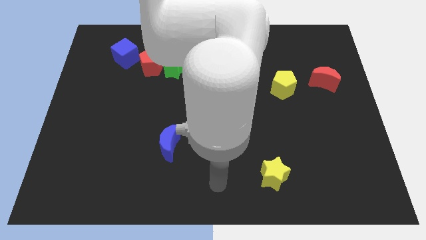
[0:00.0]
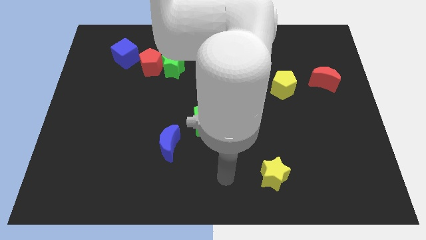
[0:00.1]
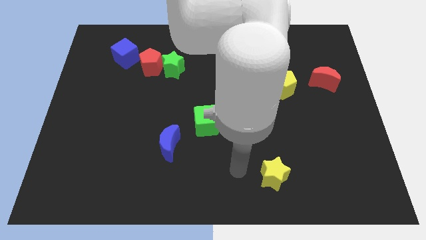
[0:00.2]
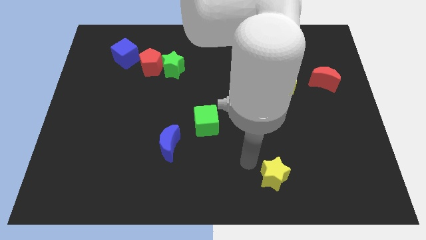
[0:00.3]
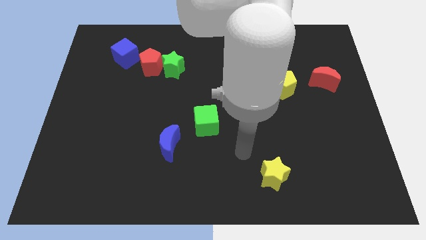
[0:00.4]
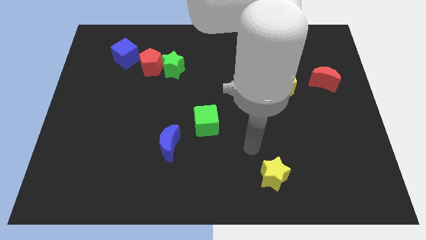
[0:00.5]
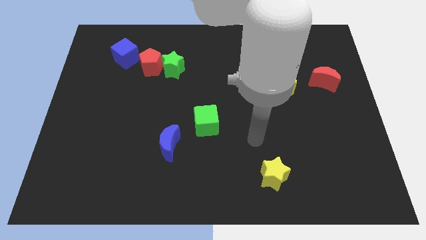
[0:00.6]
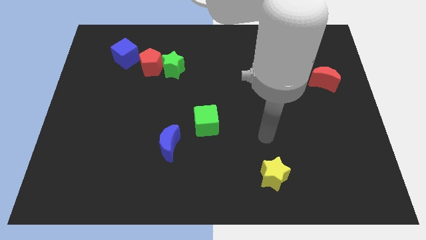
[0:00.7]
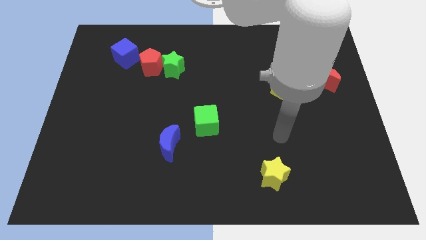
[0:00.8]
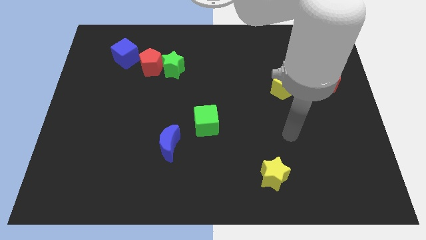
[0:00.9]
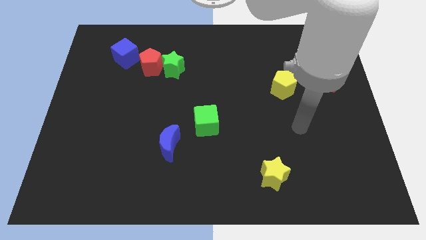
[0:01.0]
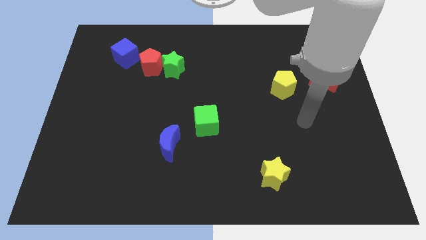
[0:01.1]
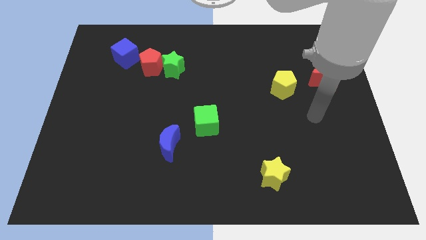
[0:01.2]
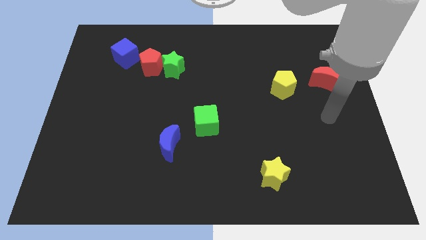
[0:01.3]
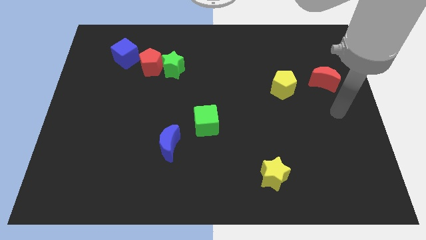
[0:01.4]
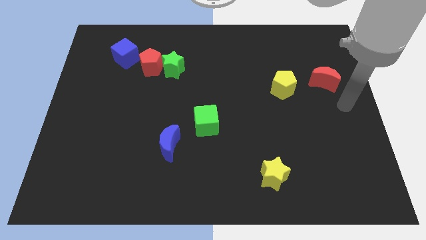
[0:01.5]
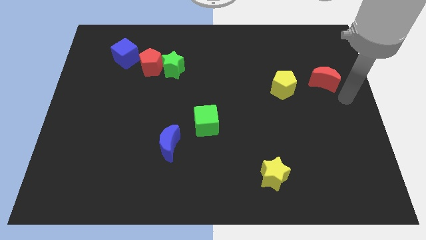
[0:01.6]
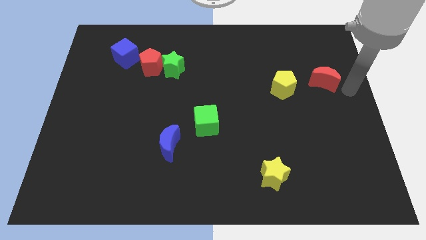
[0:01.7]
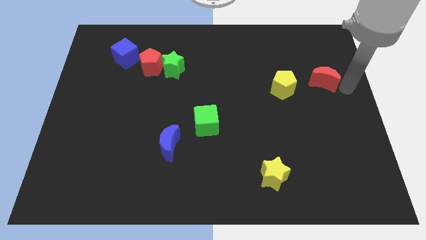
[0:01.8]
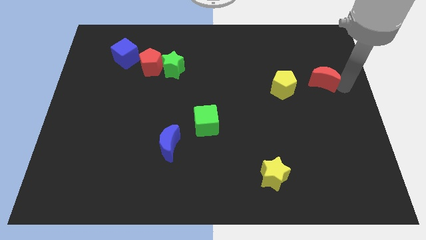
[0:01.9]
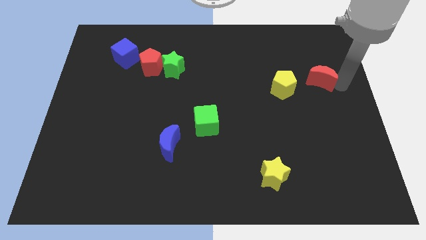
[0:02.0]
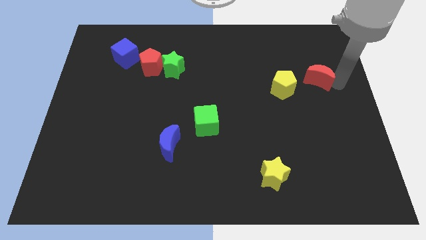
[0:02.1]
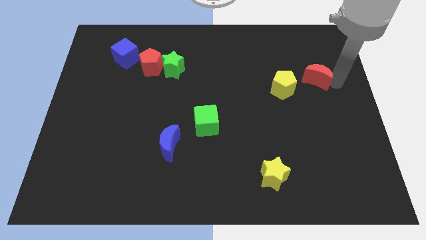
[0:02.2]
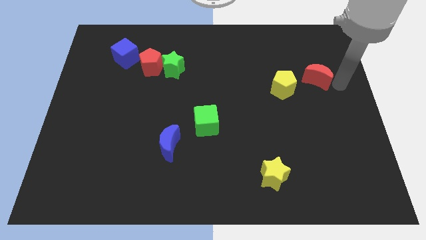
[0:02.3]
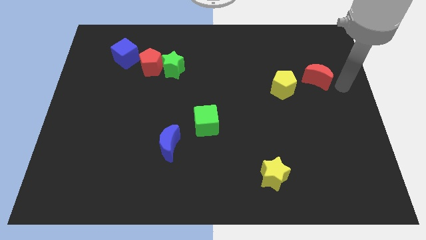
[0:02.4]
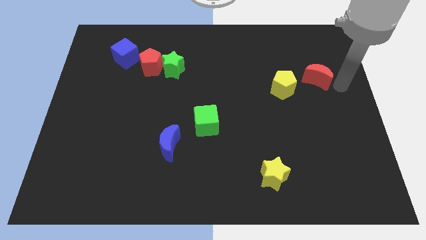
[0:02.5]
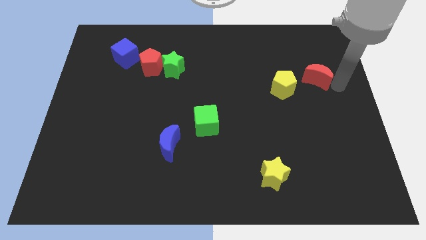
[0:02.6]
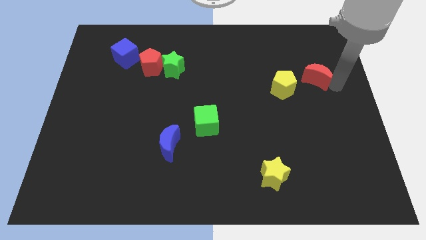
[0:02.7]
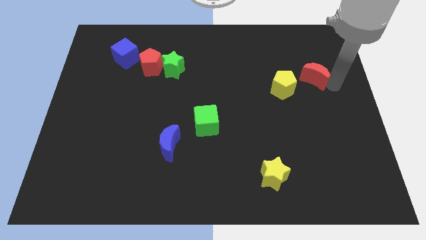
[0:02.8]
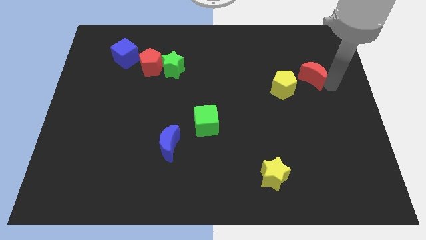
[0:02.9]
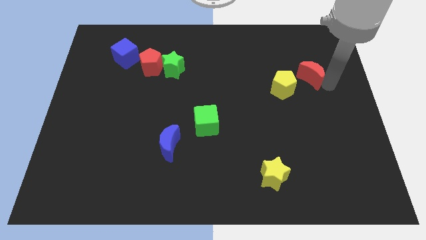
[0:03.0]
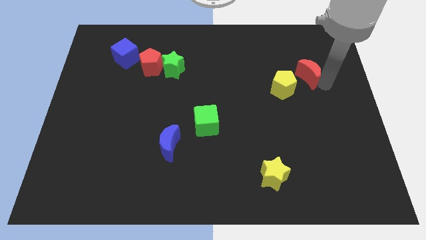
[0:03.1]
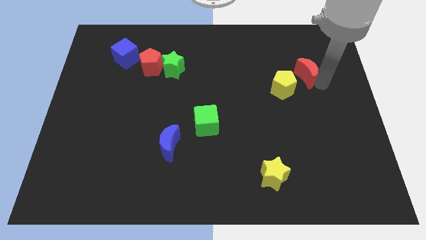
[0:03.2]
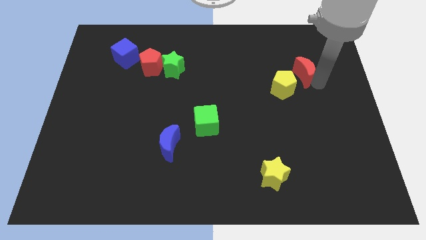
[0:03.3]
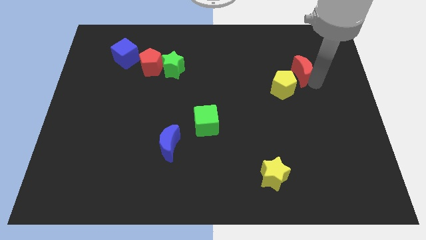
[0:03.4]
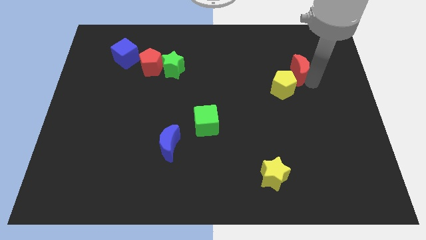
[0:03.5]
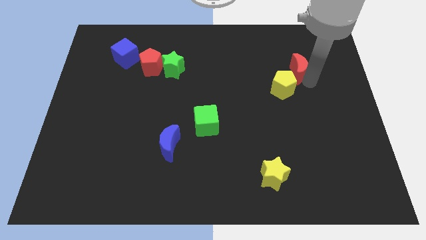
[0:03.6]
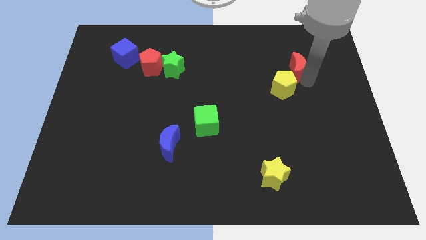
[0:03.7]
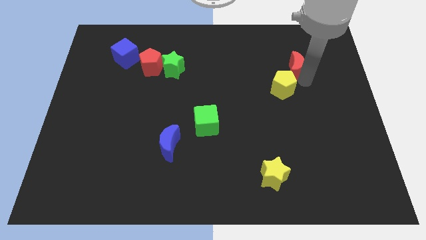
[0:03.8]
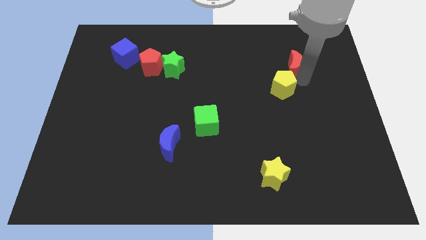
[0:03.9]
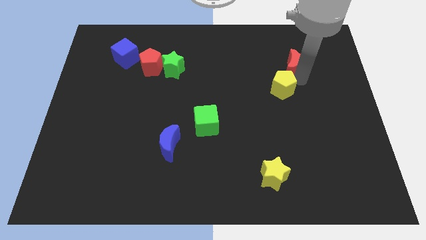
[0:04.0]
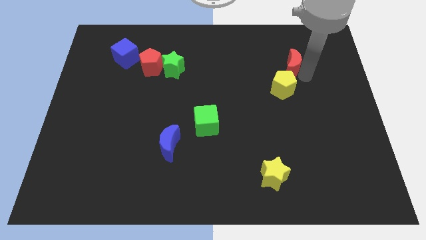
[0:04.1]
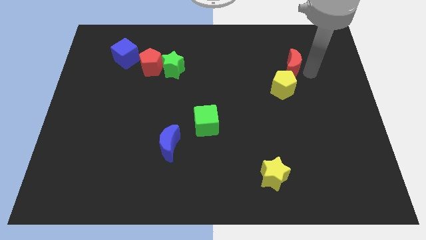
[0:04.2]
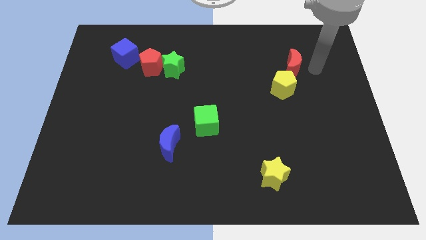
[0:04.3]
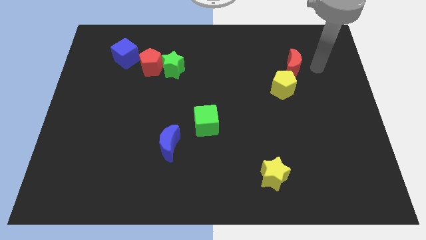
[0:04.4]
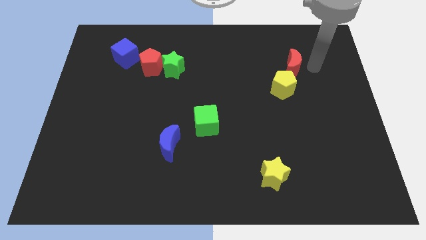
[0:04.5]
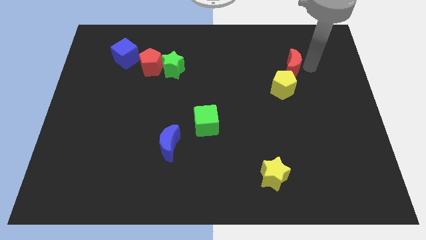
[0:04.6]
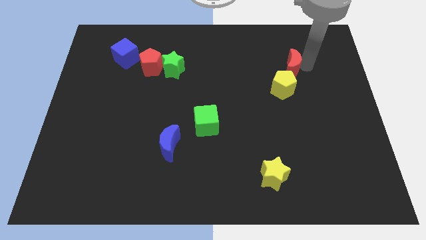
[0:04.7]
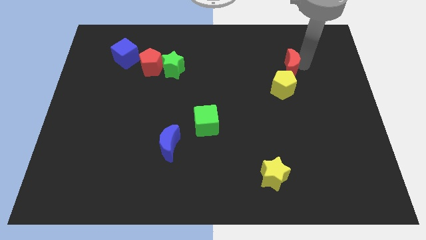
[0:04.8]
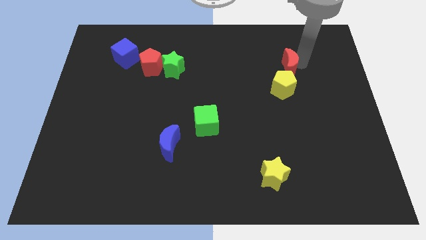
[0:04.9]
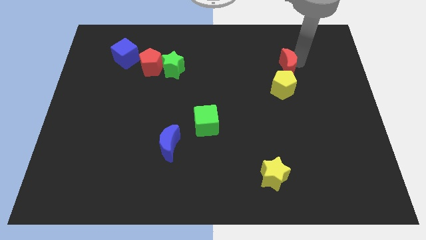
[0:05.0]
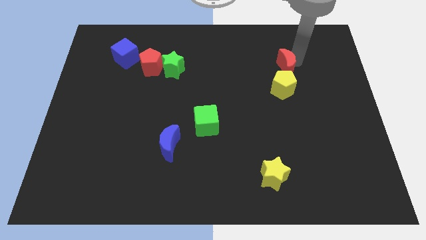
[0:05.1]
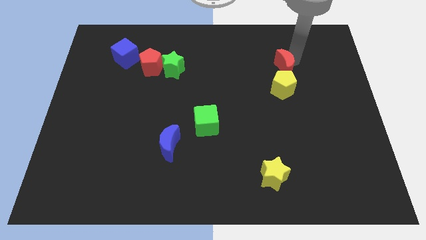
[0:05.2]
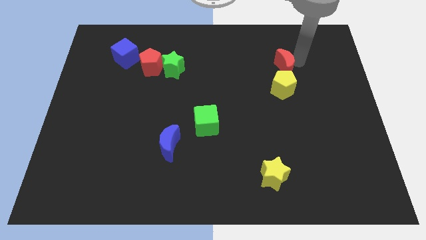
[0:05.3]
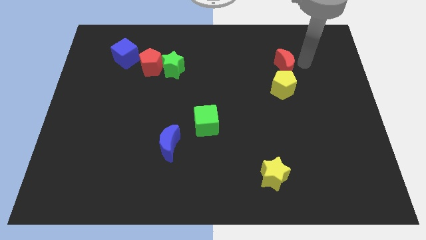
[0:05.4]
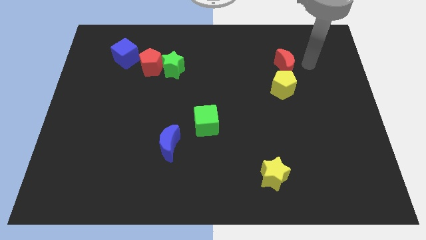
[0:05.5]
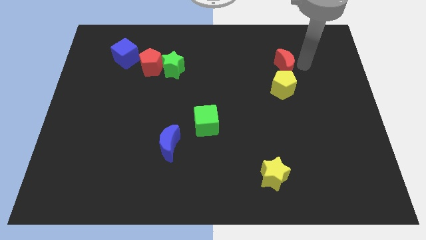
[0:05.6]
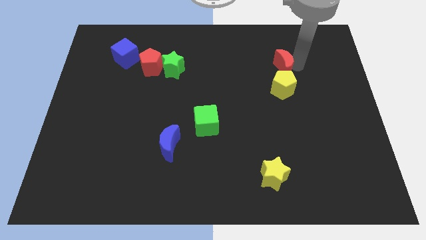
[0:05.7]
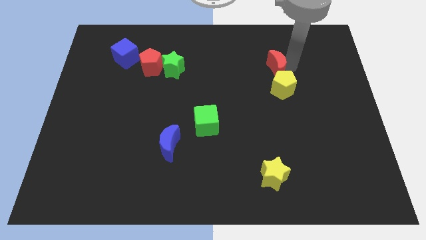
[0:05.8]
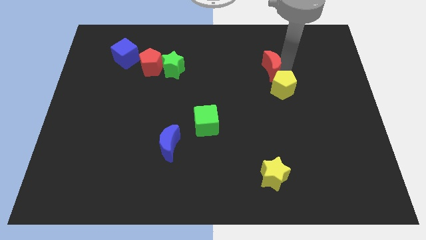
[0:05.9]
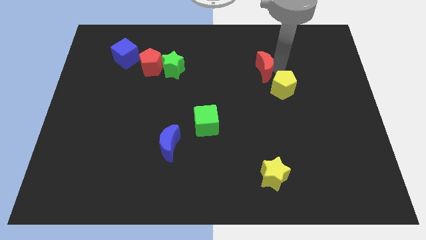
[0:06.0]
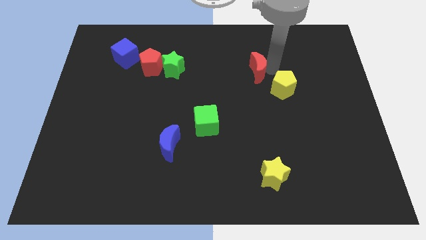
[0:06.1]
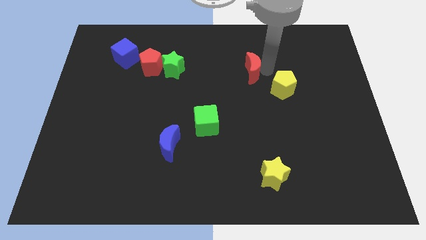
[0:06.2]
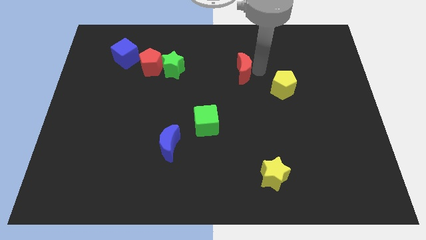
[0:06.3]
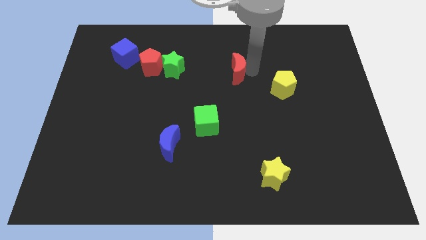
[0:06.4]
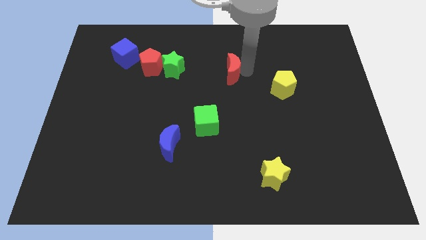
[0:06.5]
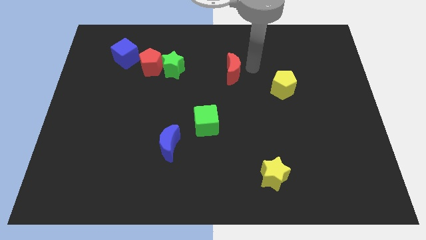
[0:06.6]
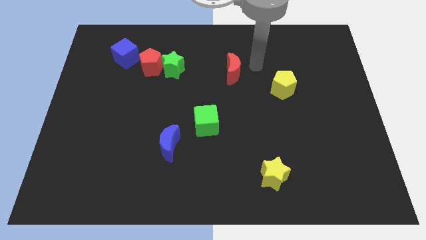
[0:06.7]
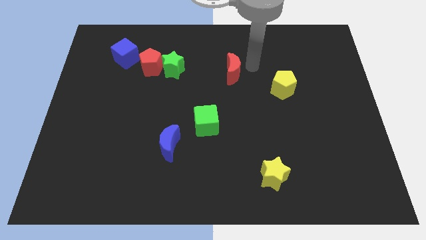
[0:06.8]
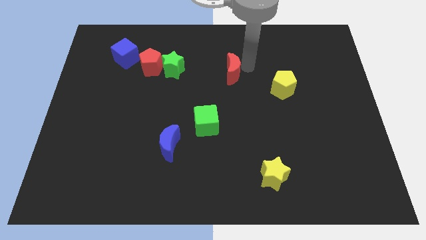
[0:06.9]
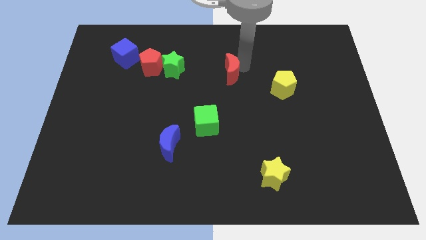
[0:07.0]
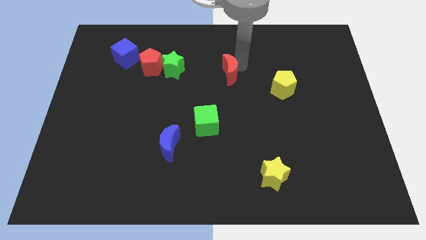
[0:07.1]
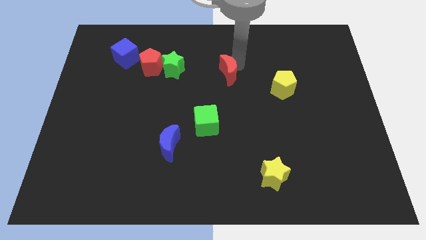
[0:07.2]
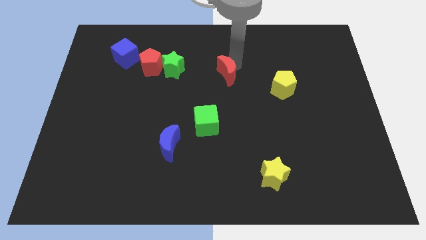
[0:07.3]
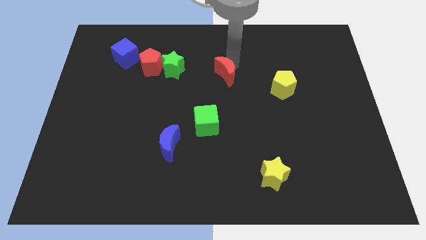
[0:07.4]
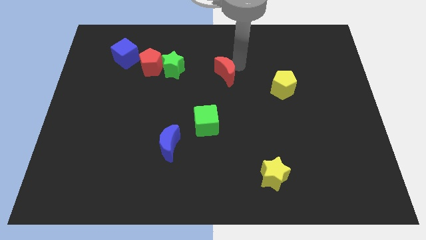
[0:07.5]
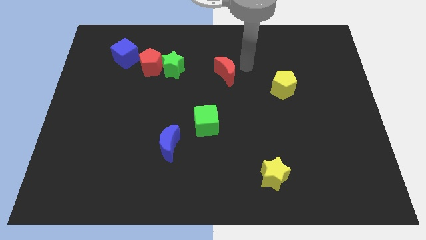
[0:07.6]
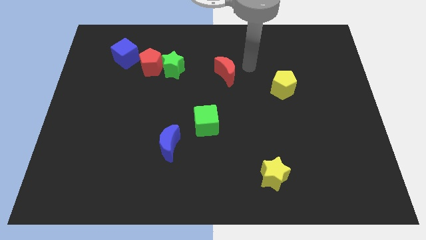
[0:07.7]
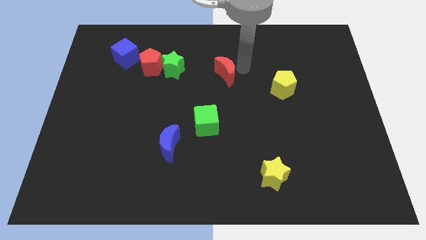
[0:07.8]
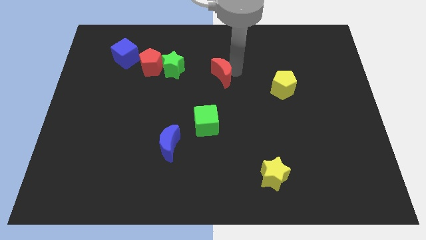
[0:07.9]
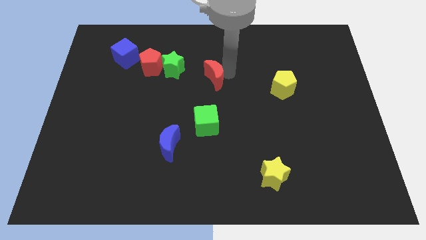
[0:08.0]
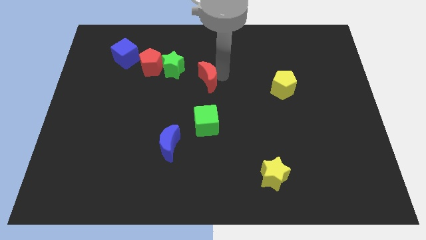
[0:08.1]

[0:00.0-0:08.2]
slide the red moon to the bottom right of the green star

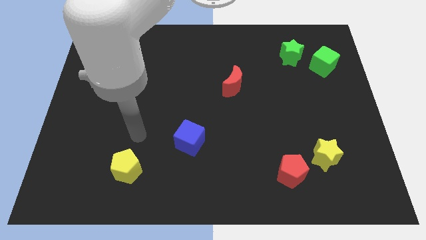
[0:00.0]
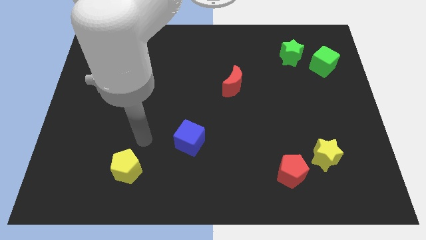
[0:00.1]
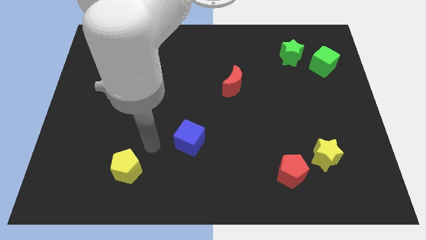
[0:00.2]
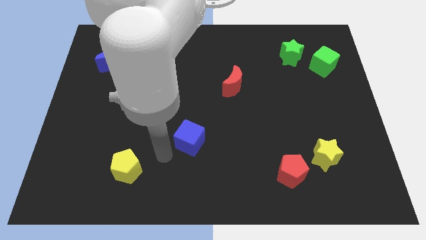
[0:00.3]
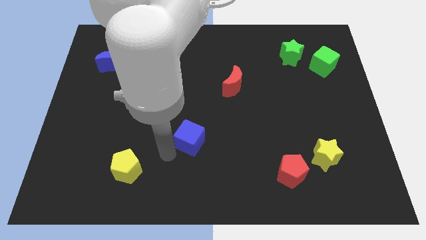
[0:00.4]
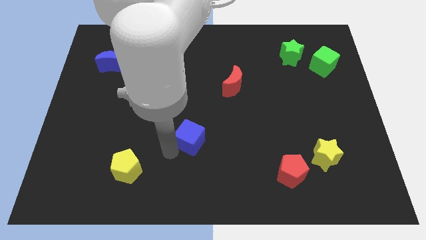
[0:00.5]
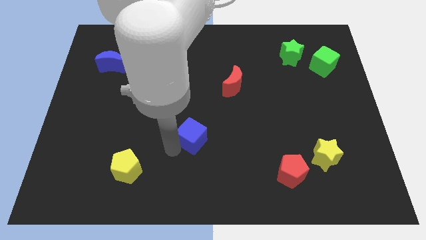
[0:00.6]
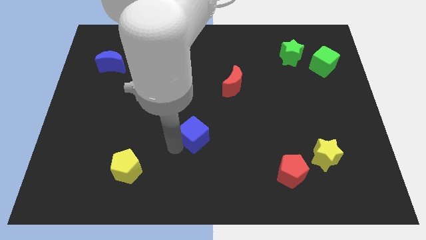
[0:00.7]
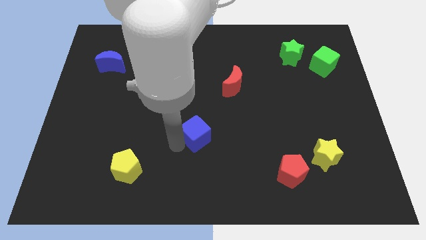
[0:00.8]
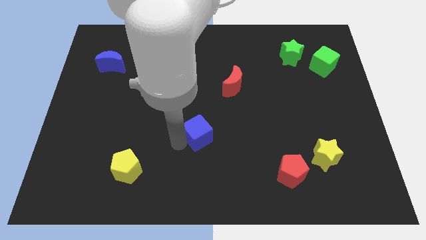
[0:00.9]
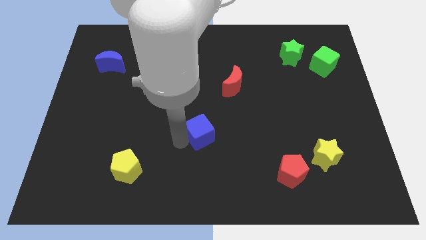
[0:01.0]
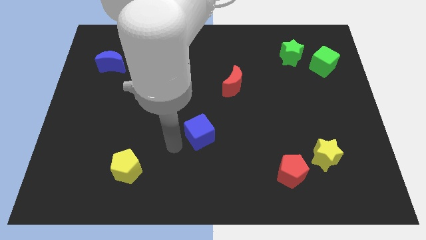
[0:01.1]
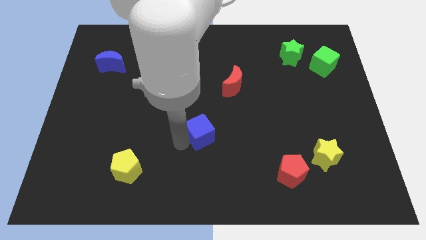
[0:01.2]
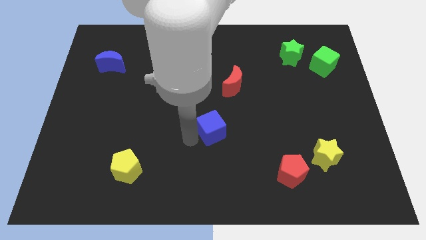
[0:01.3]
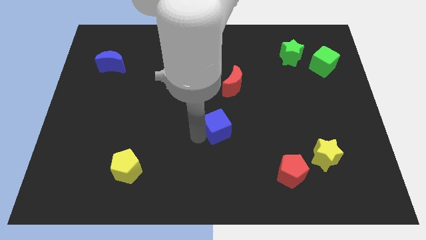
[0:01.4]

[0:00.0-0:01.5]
move the blue cube to the bottom side of the red moon
